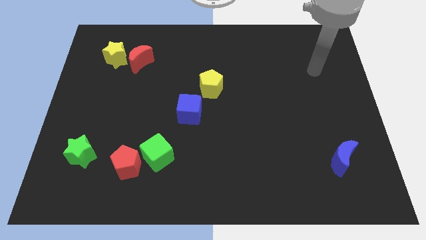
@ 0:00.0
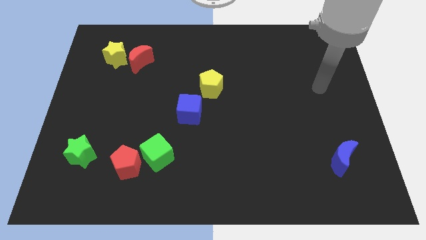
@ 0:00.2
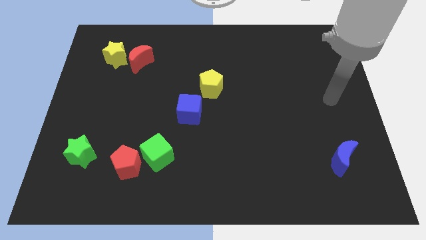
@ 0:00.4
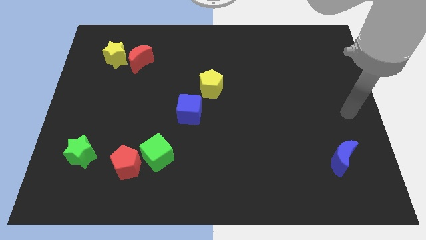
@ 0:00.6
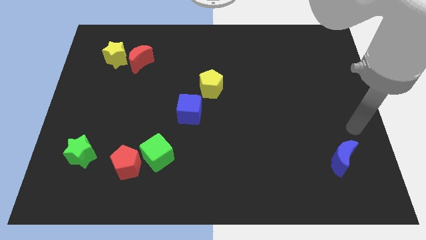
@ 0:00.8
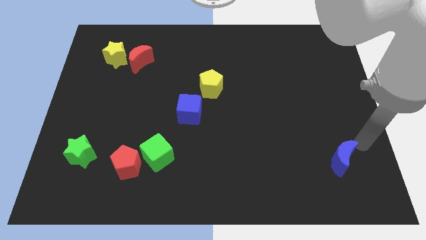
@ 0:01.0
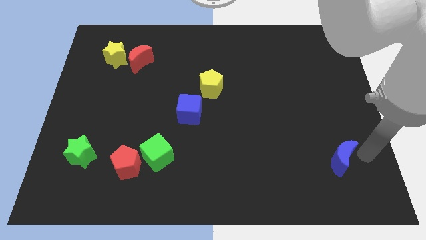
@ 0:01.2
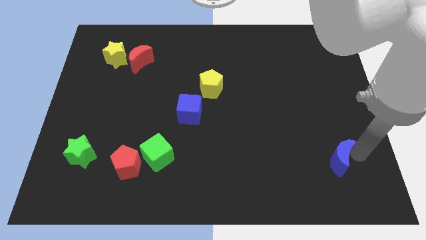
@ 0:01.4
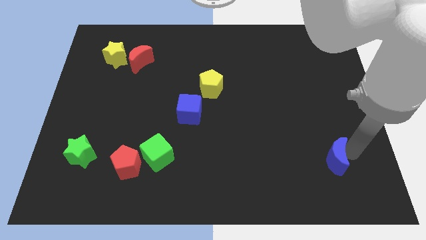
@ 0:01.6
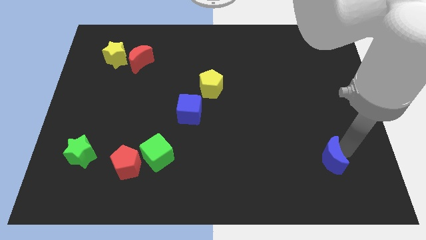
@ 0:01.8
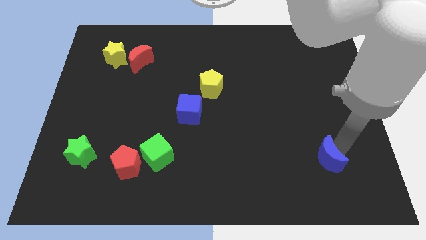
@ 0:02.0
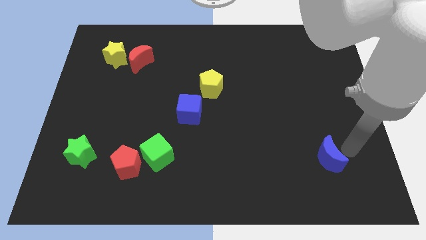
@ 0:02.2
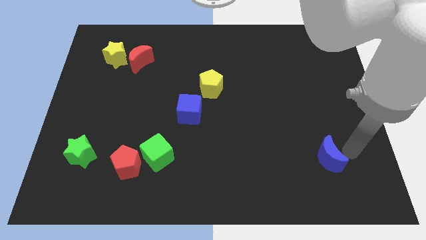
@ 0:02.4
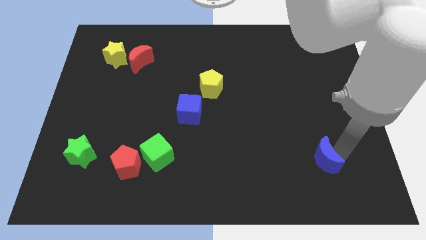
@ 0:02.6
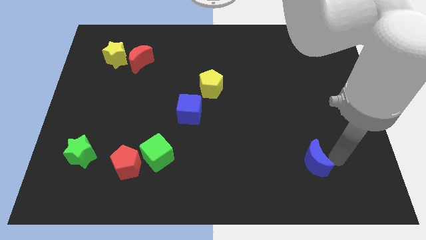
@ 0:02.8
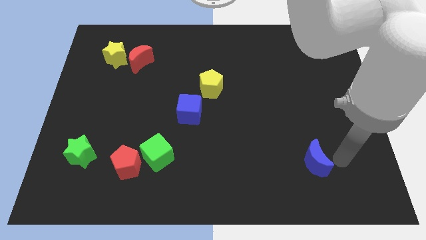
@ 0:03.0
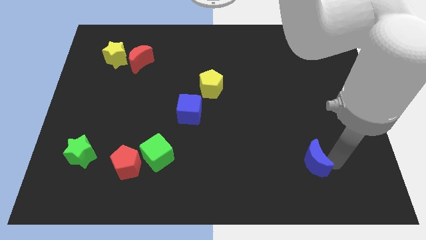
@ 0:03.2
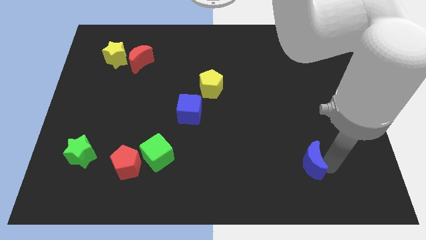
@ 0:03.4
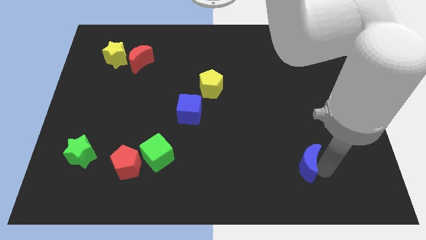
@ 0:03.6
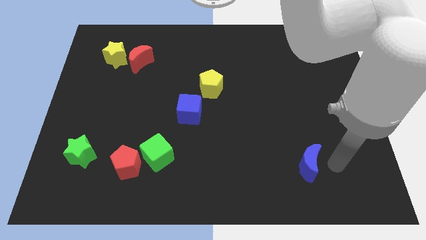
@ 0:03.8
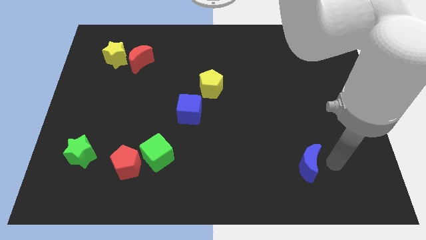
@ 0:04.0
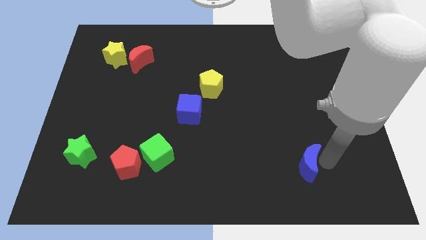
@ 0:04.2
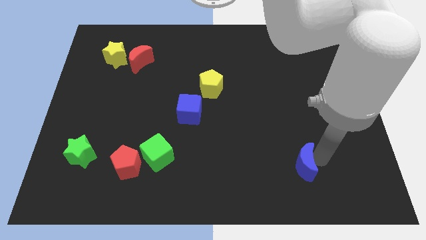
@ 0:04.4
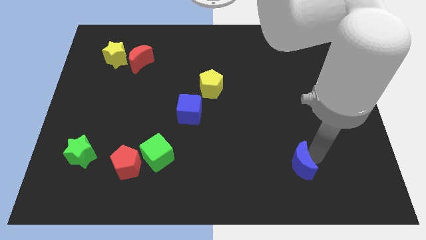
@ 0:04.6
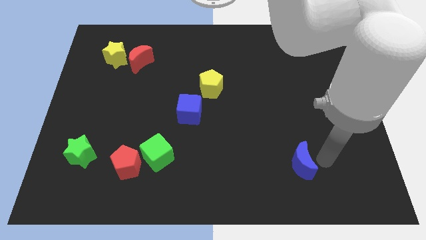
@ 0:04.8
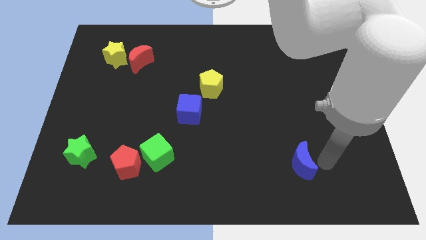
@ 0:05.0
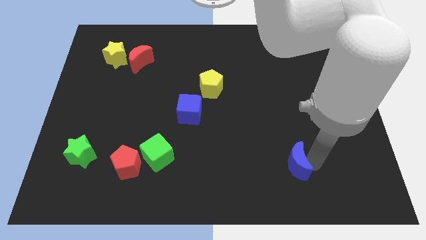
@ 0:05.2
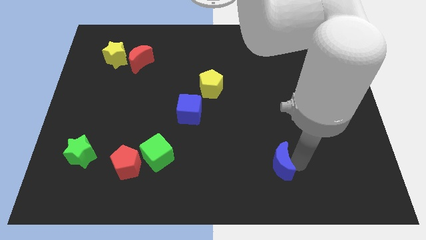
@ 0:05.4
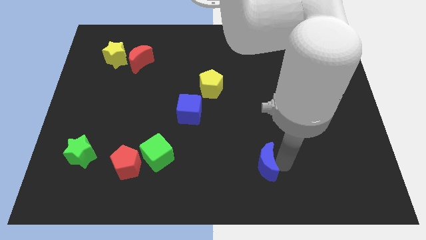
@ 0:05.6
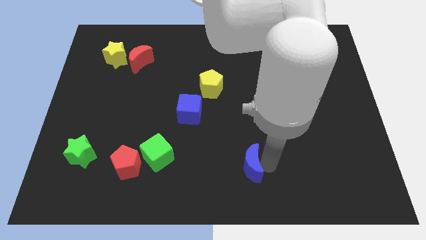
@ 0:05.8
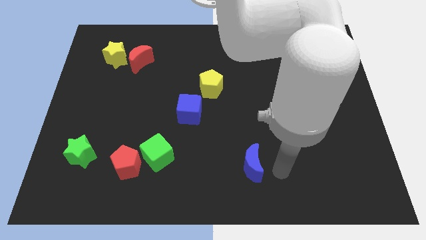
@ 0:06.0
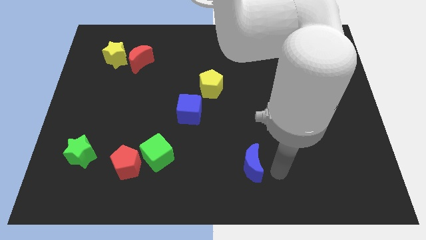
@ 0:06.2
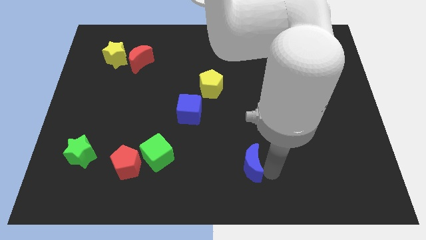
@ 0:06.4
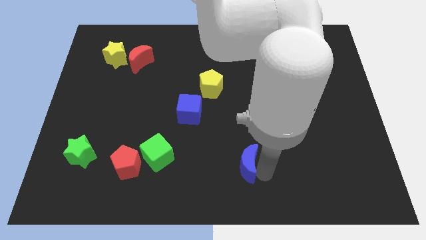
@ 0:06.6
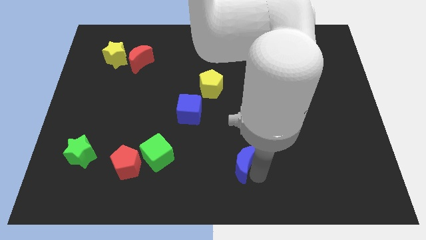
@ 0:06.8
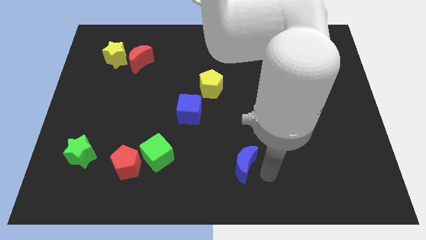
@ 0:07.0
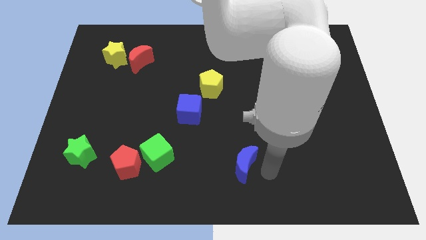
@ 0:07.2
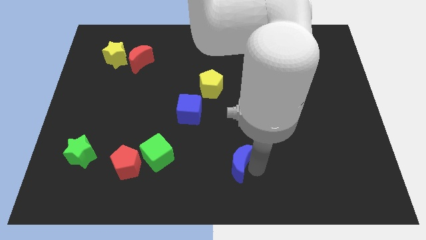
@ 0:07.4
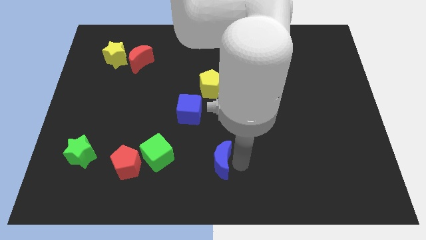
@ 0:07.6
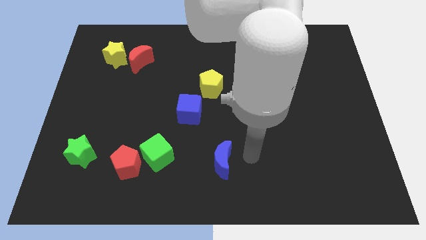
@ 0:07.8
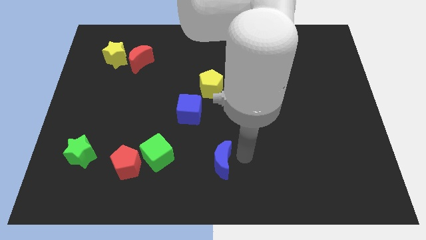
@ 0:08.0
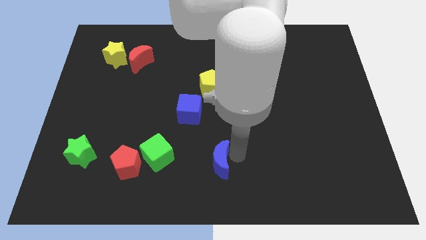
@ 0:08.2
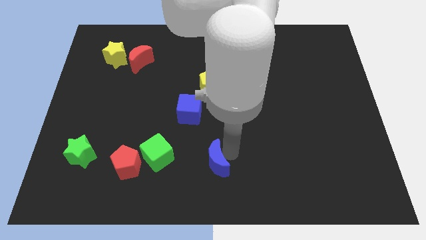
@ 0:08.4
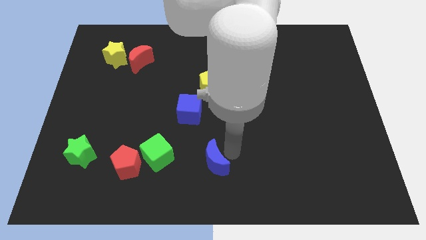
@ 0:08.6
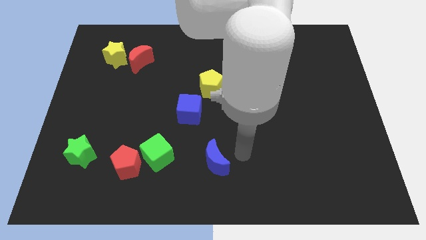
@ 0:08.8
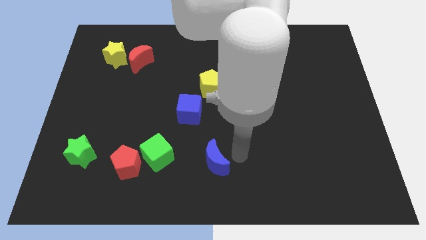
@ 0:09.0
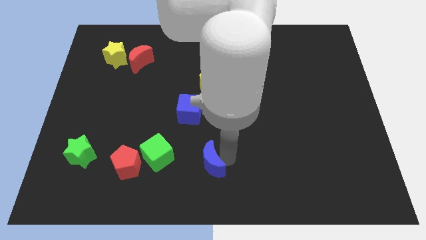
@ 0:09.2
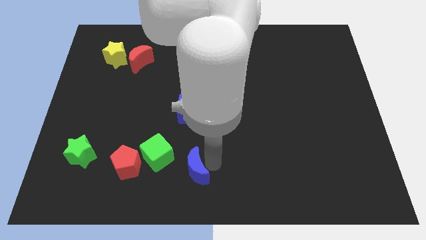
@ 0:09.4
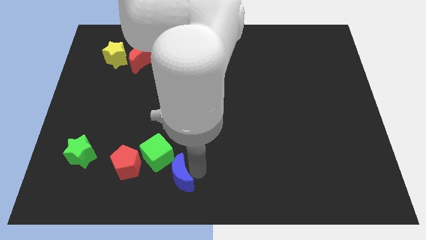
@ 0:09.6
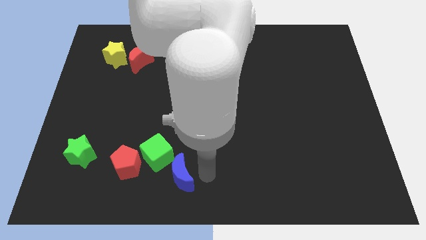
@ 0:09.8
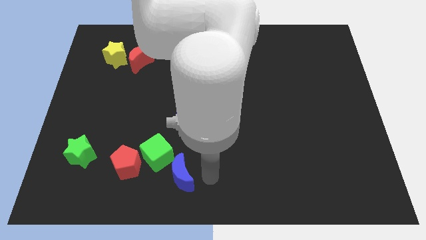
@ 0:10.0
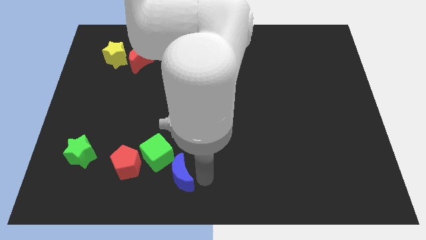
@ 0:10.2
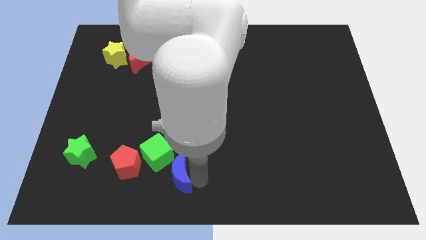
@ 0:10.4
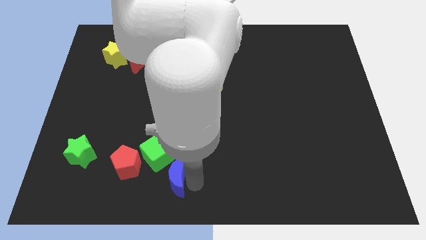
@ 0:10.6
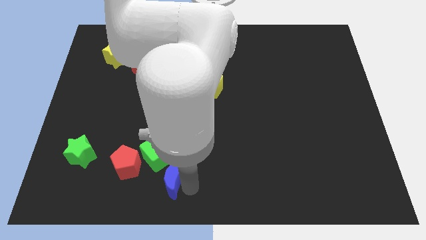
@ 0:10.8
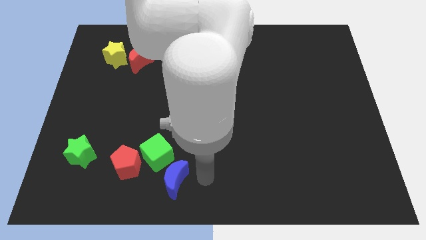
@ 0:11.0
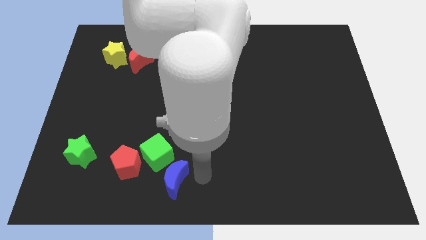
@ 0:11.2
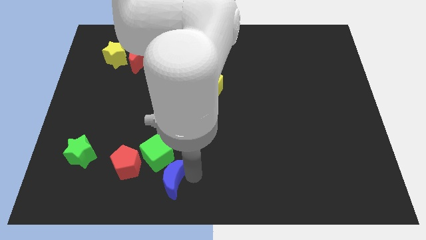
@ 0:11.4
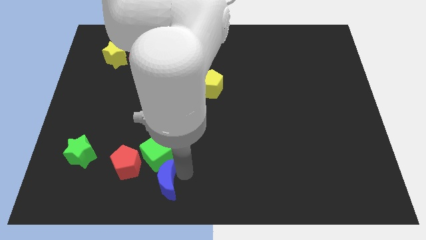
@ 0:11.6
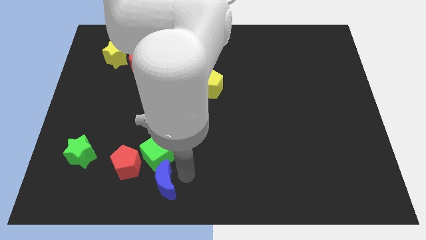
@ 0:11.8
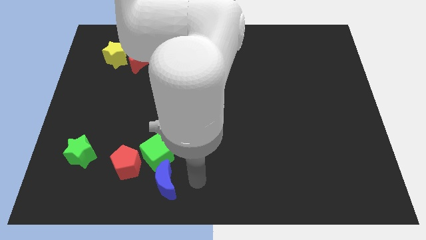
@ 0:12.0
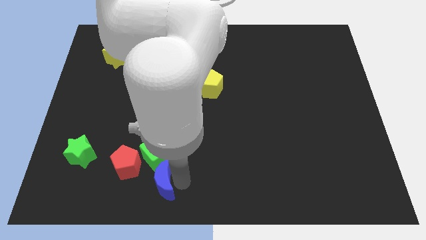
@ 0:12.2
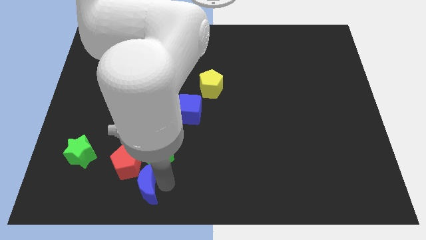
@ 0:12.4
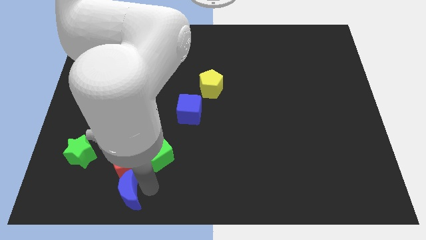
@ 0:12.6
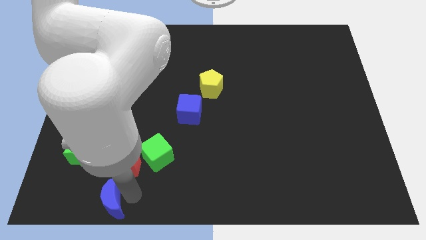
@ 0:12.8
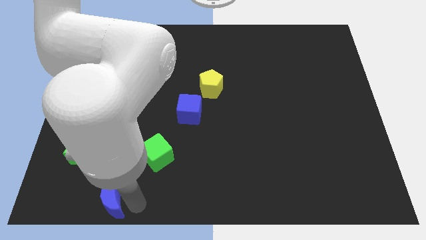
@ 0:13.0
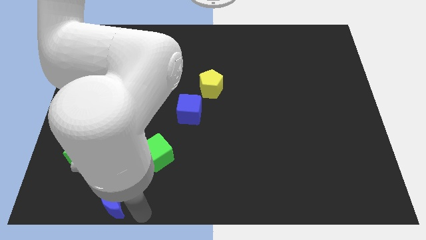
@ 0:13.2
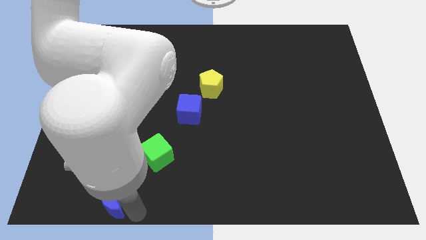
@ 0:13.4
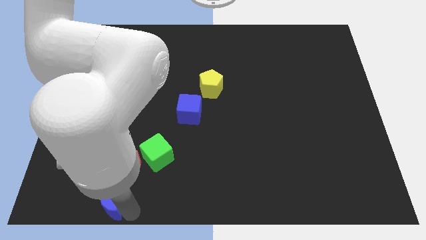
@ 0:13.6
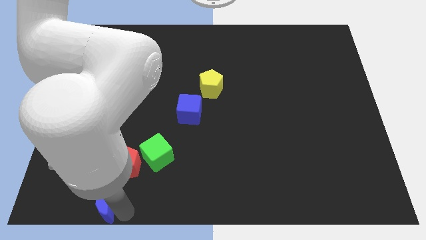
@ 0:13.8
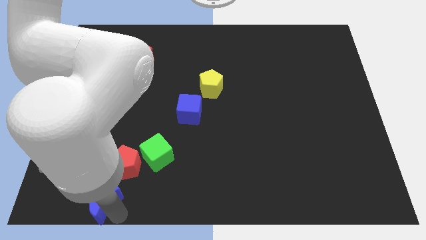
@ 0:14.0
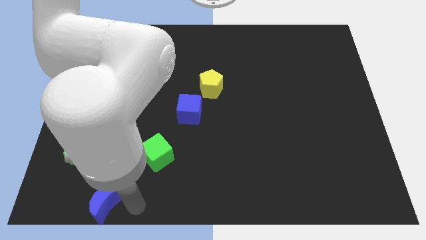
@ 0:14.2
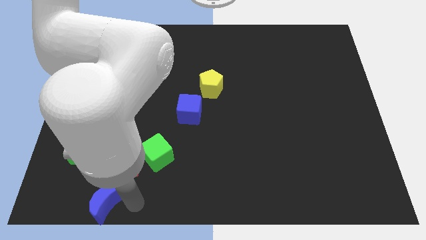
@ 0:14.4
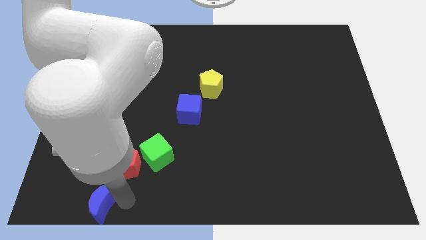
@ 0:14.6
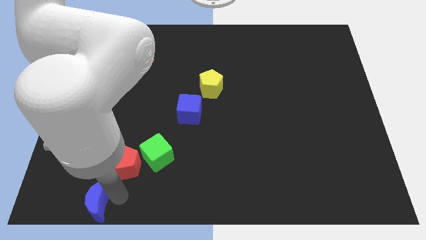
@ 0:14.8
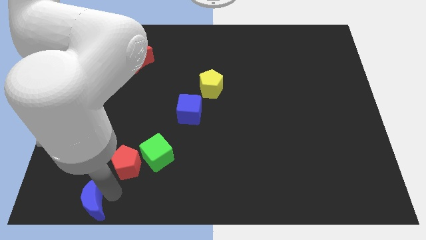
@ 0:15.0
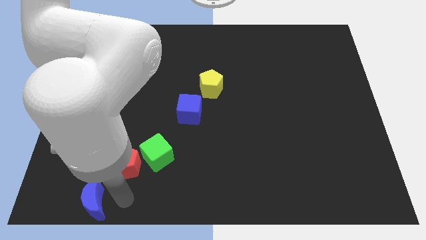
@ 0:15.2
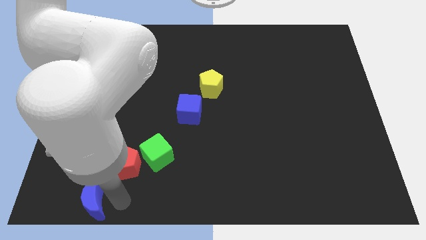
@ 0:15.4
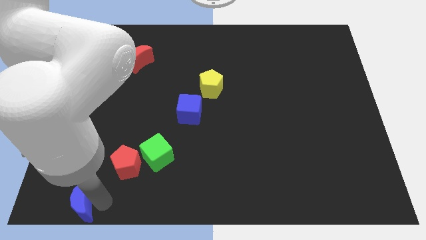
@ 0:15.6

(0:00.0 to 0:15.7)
slide the blue moon to the bottom left corner
